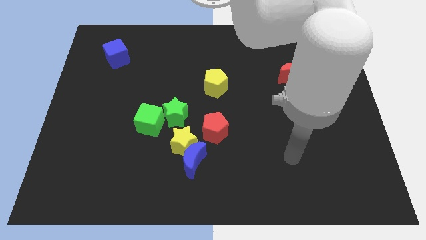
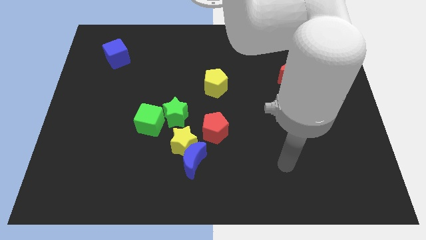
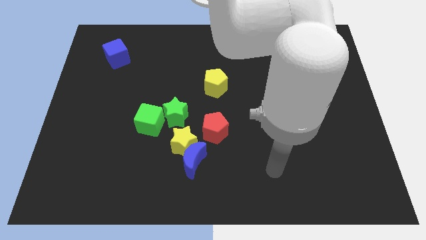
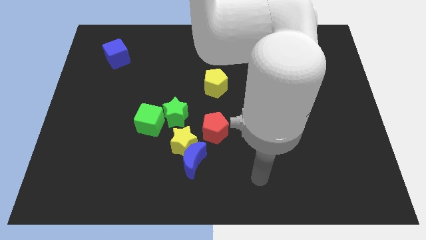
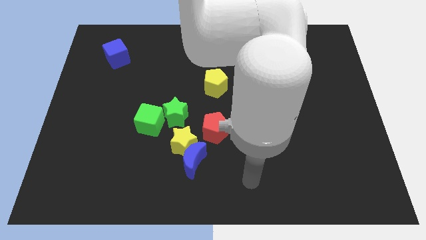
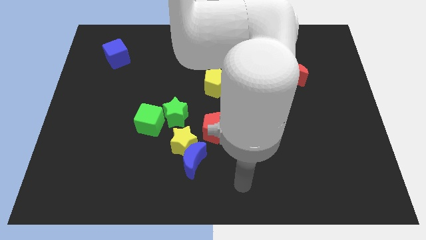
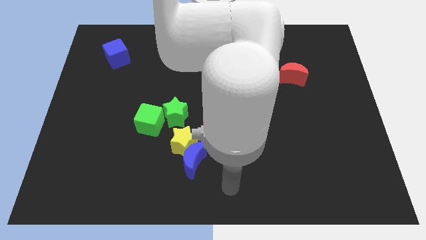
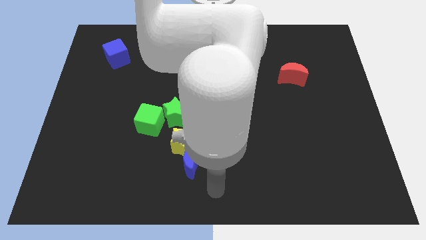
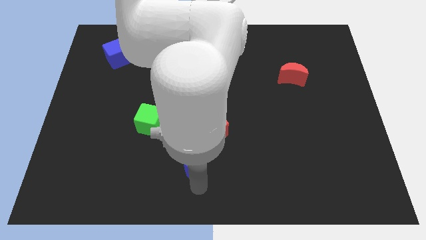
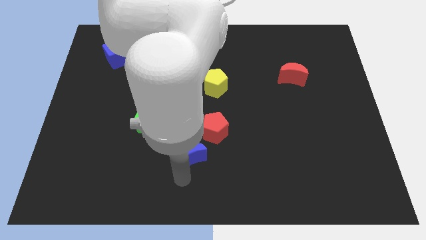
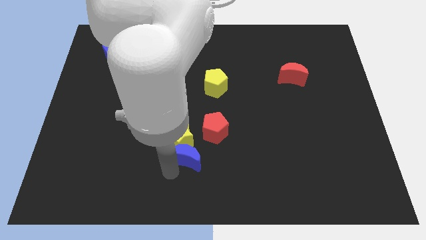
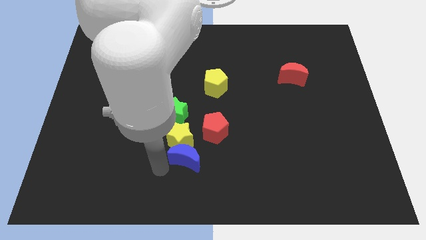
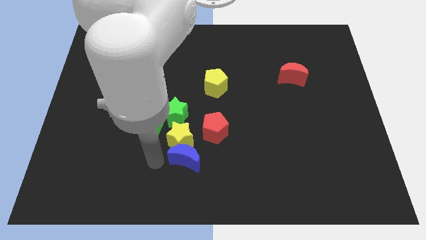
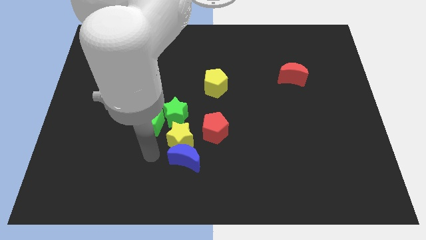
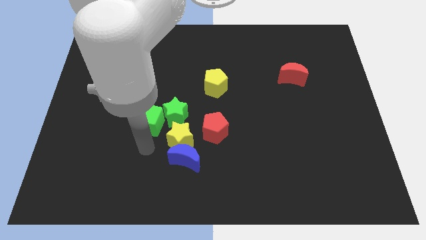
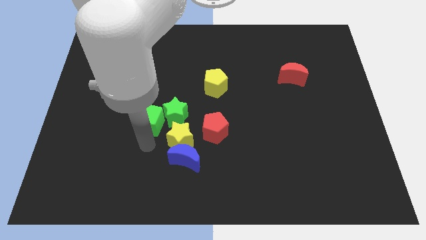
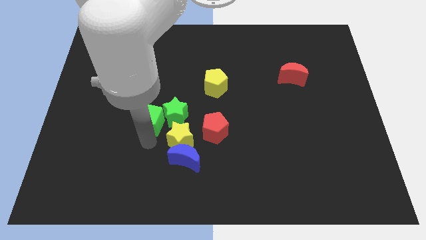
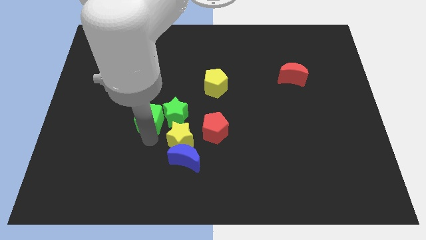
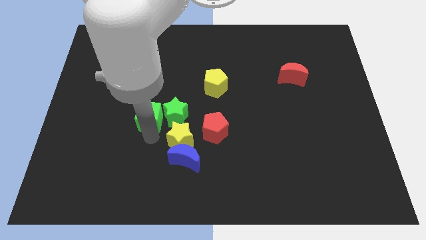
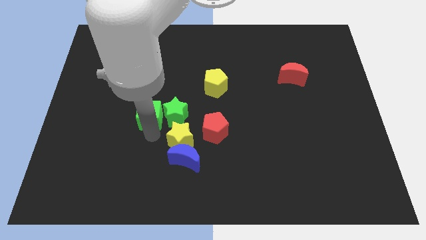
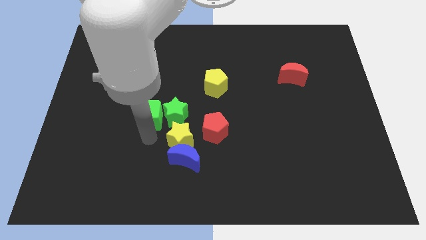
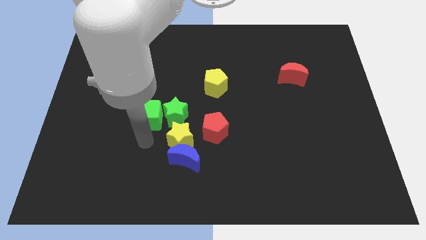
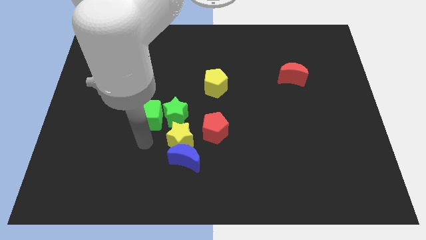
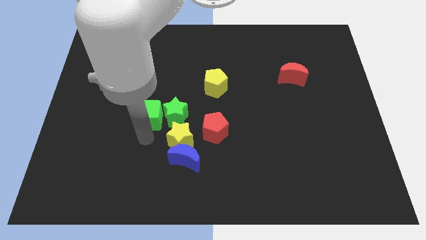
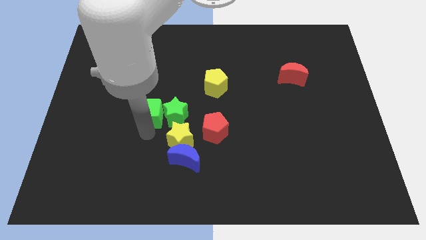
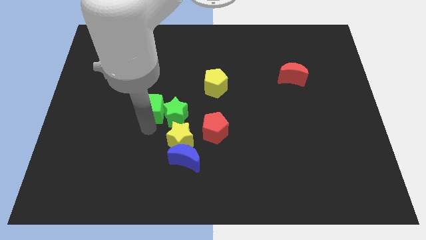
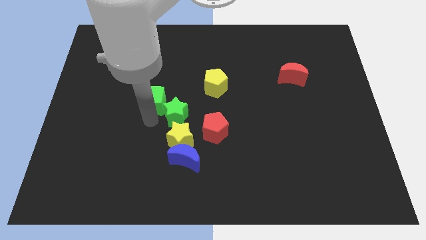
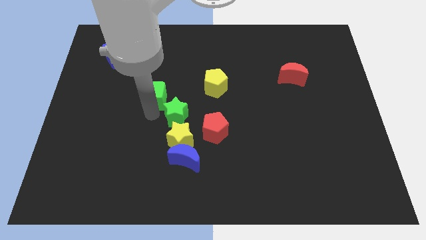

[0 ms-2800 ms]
slightly move the green cube upwards

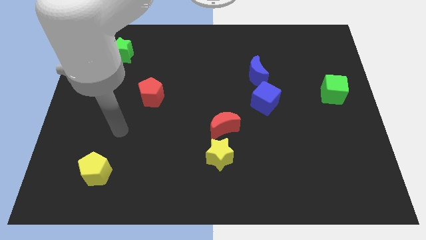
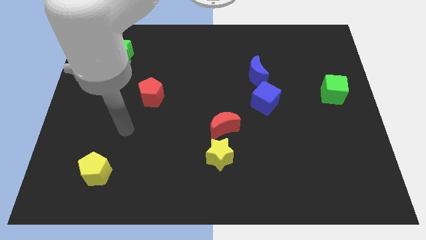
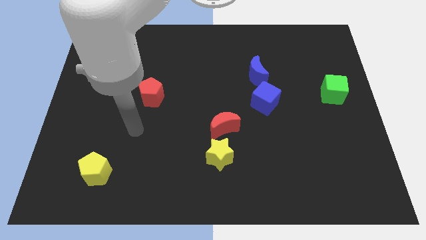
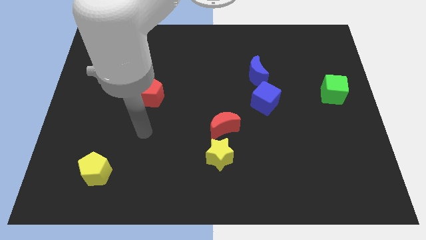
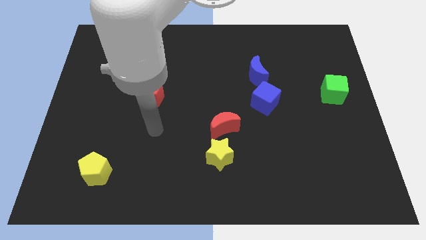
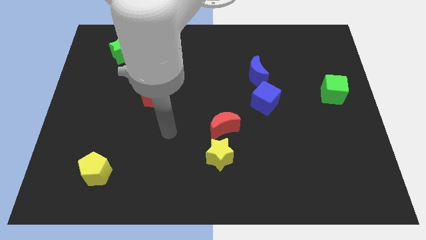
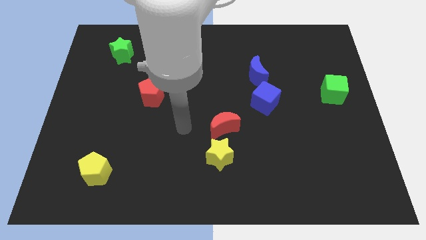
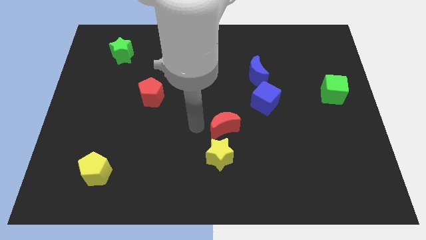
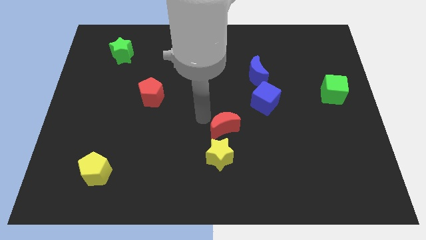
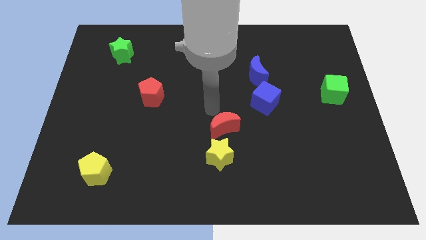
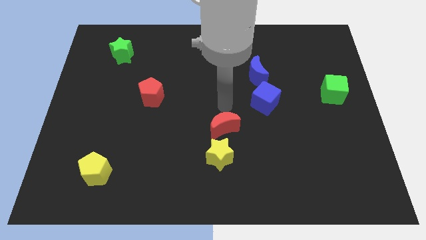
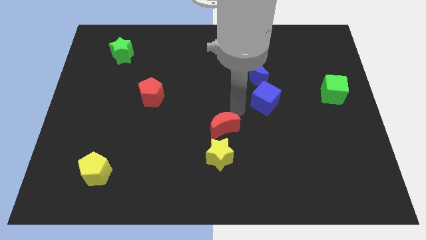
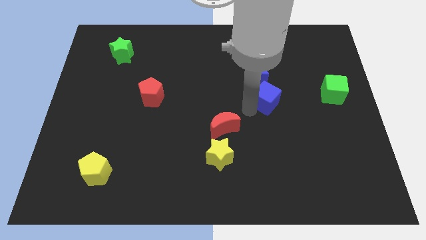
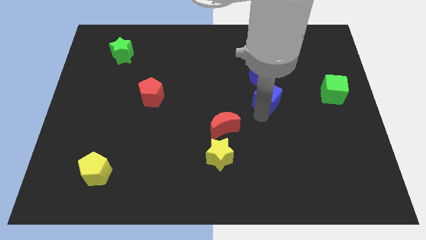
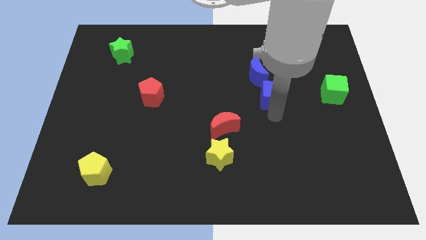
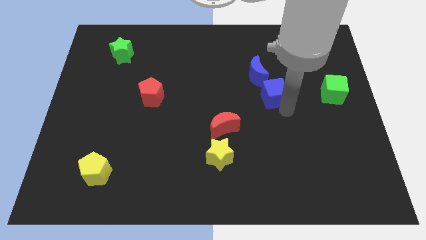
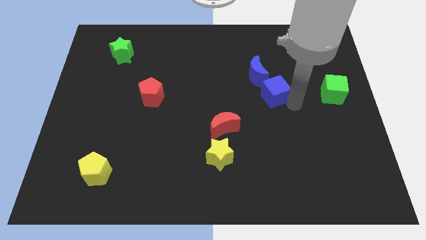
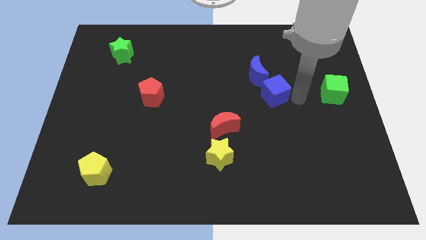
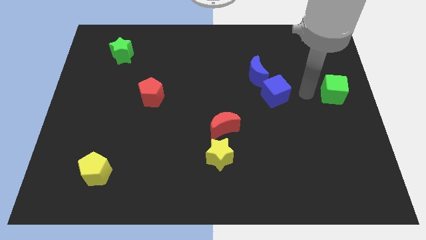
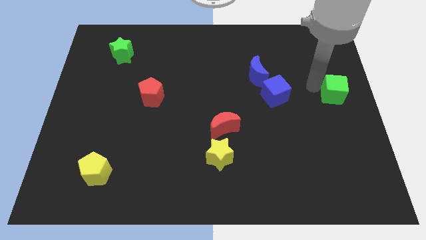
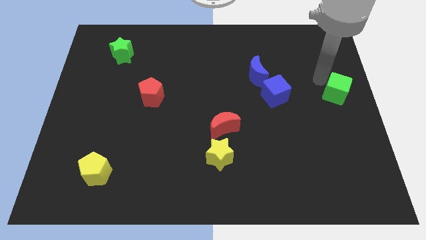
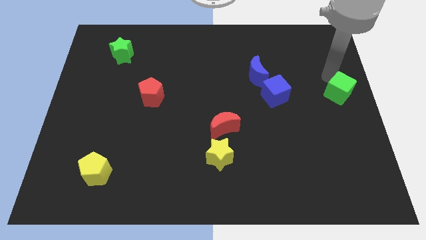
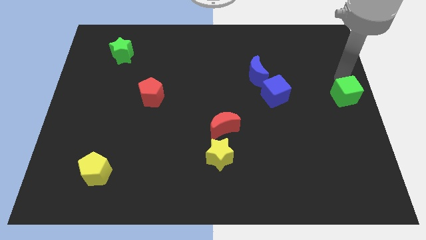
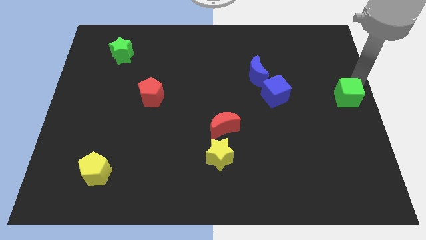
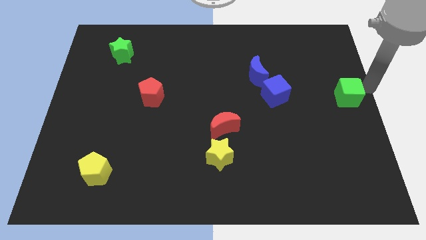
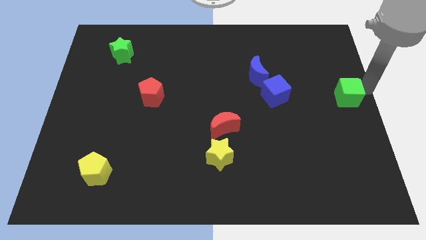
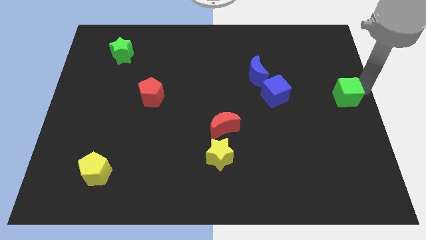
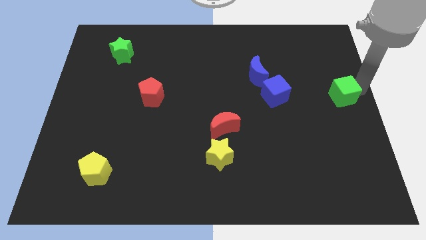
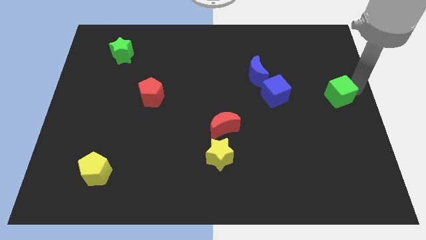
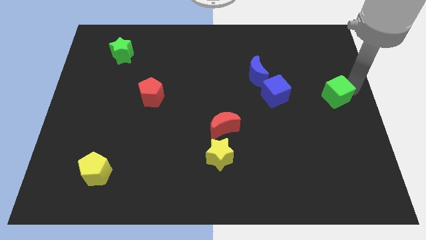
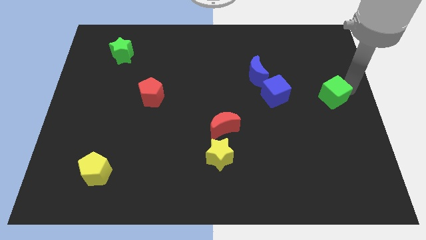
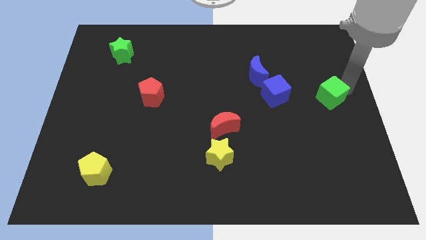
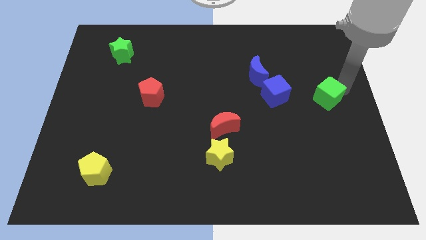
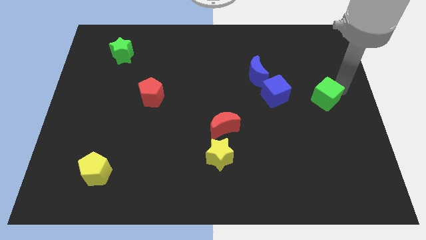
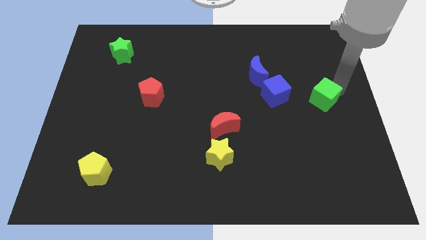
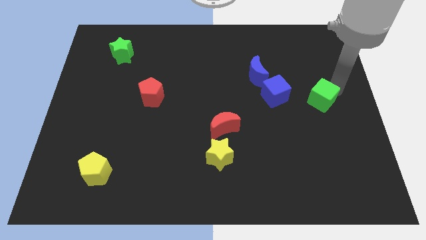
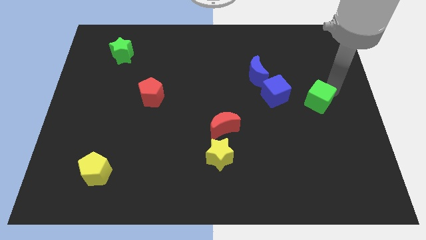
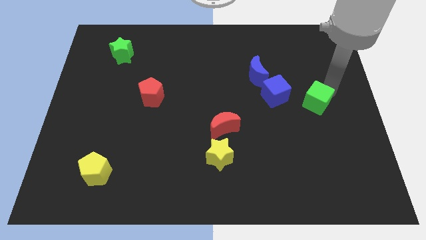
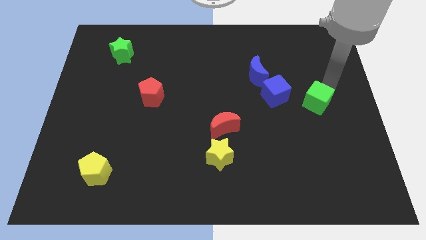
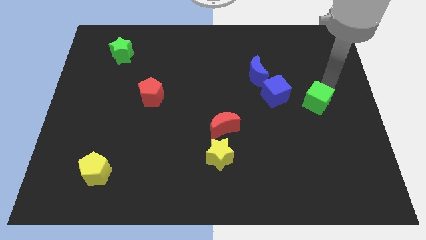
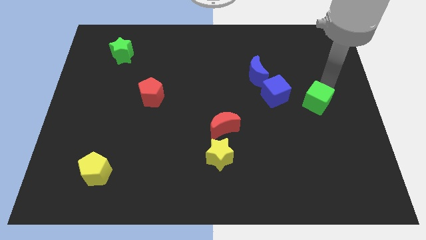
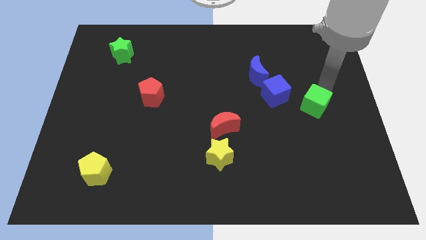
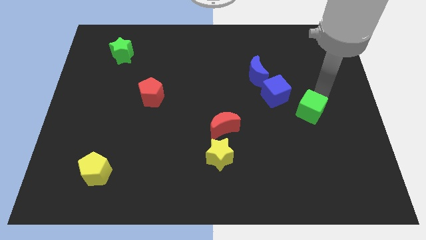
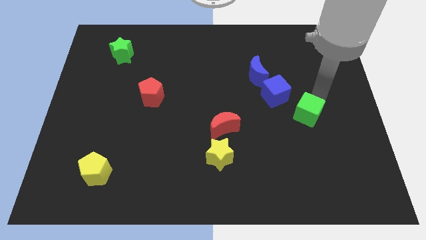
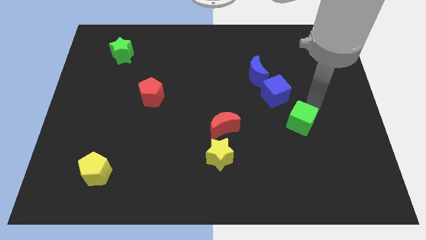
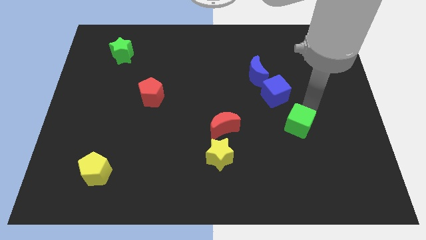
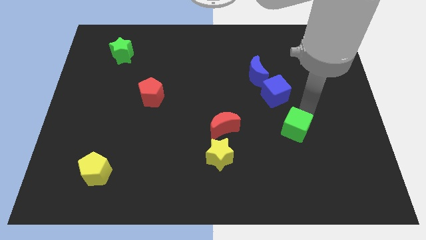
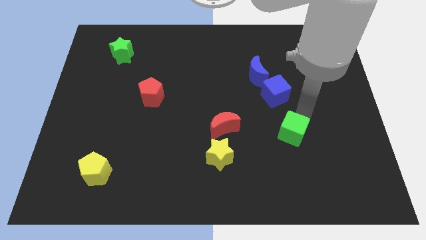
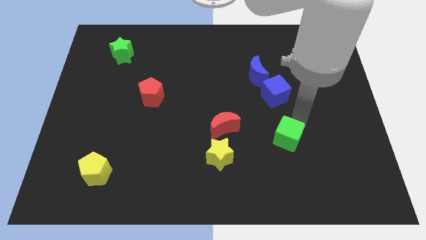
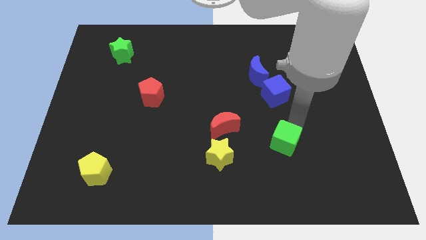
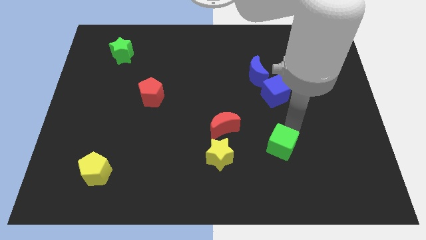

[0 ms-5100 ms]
push the green cube down and left

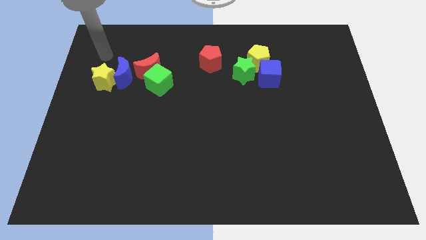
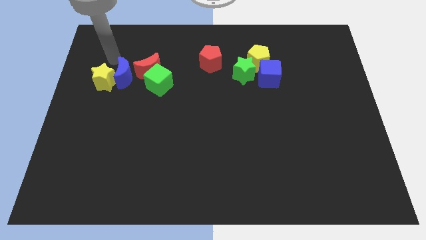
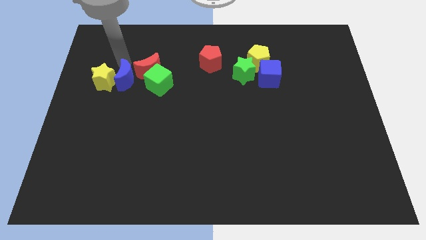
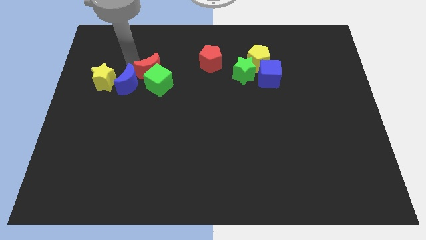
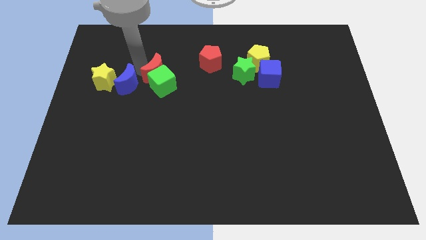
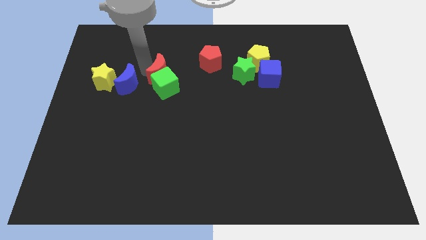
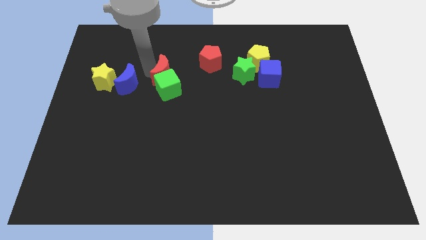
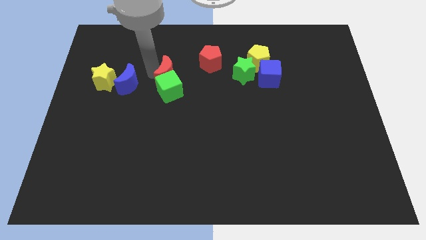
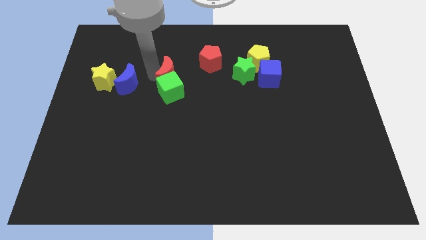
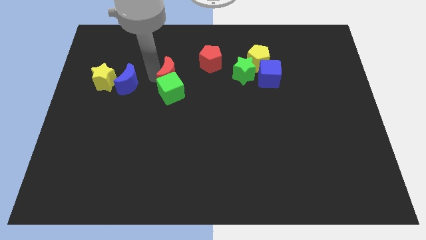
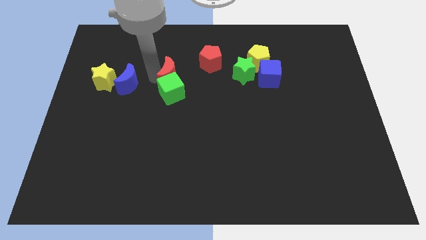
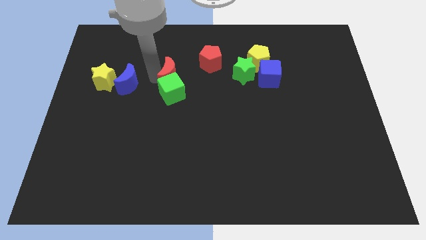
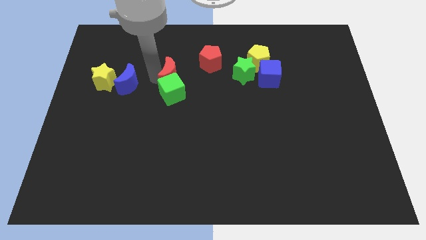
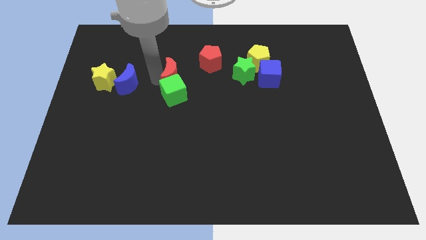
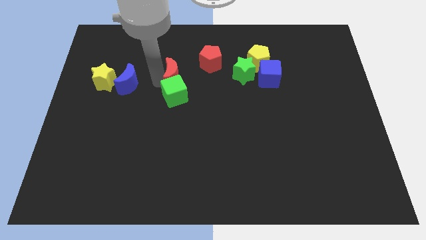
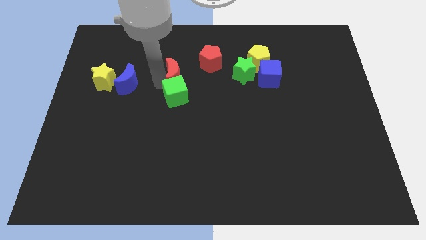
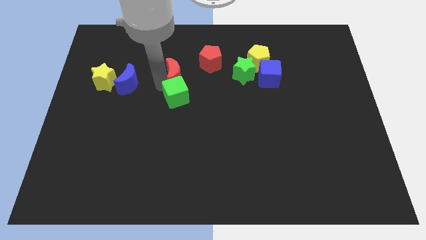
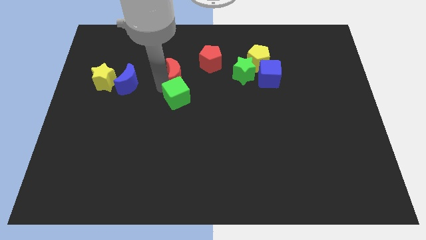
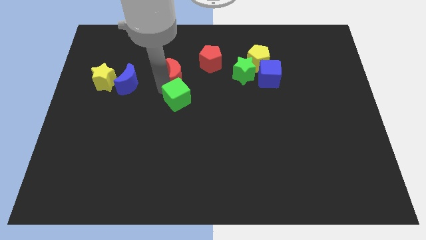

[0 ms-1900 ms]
push the green cube downwards and right a little bit
